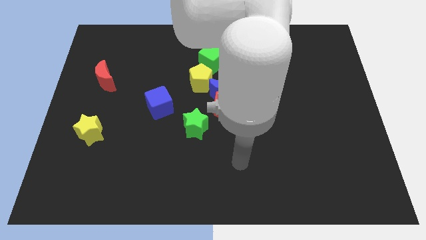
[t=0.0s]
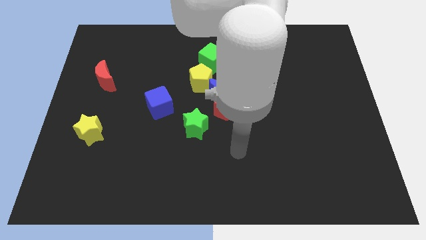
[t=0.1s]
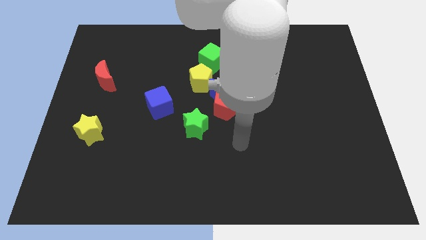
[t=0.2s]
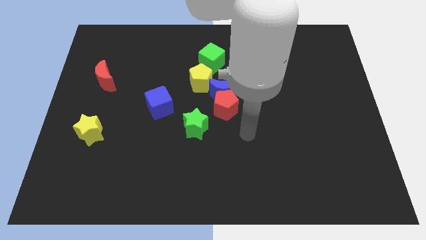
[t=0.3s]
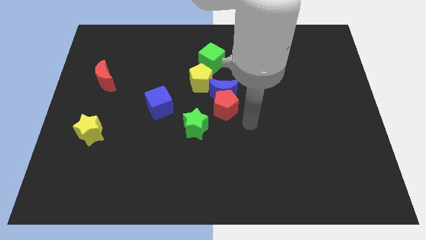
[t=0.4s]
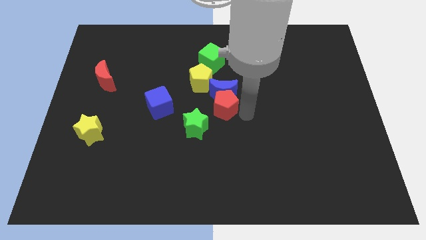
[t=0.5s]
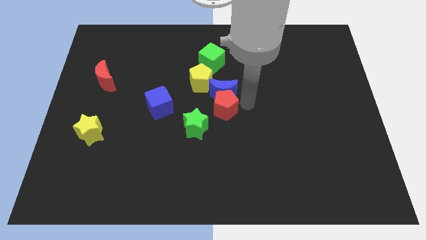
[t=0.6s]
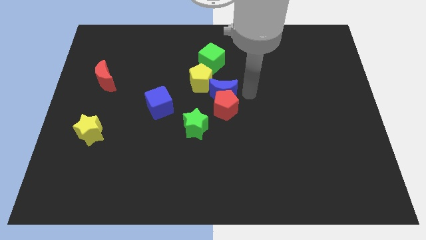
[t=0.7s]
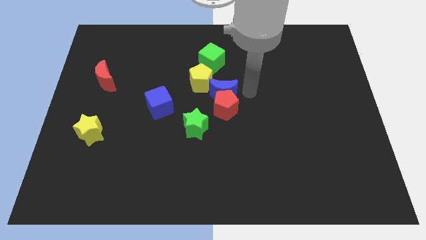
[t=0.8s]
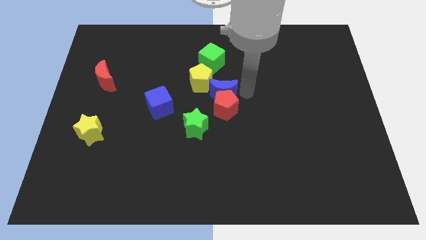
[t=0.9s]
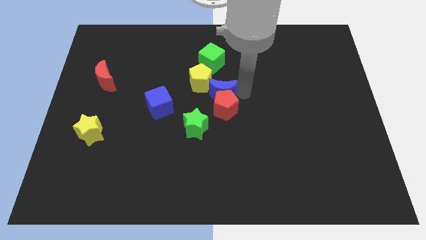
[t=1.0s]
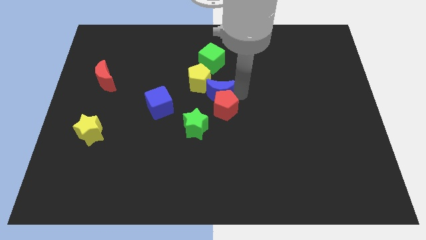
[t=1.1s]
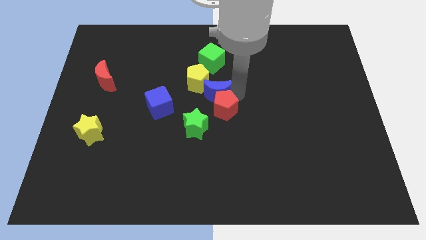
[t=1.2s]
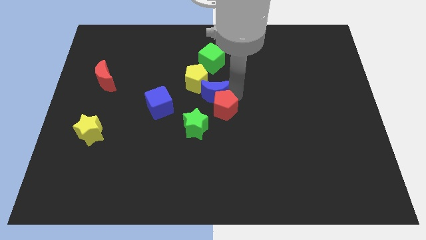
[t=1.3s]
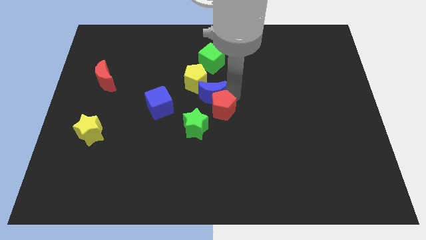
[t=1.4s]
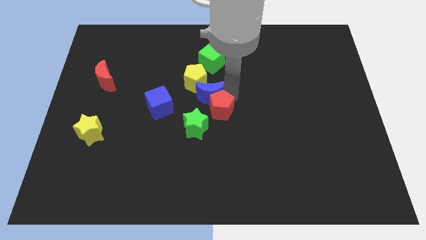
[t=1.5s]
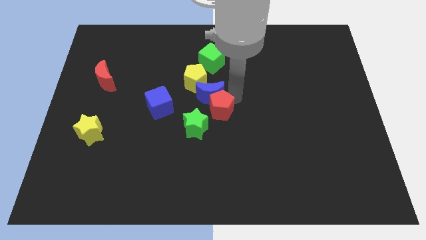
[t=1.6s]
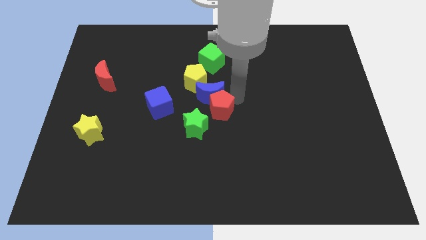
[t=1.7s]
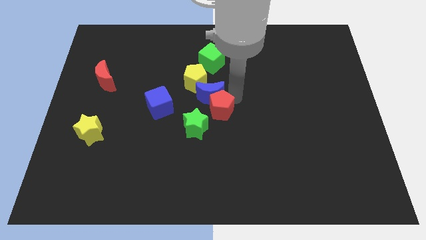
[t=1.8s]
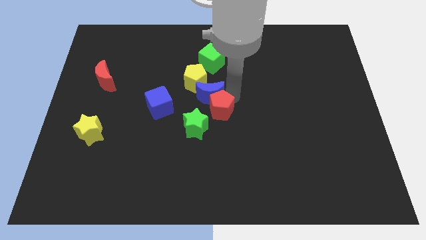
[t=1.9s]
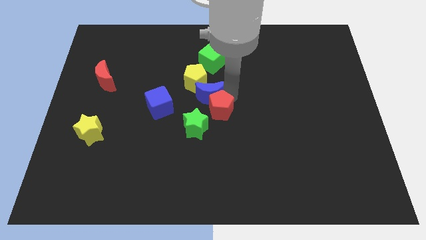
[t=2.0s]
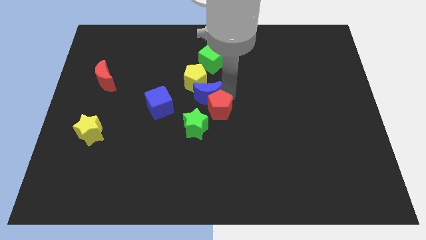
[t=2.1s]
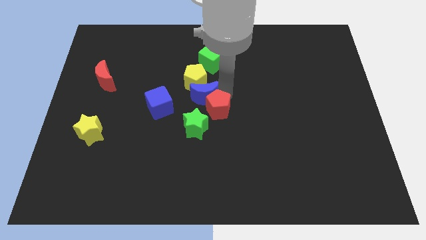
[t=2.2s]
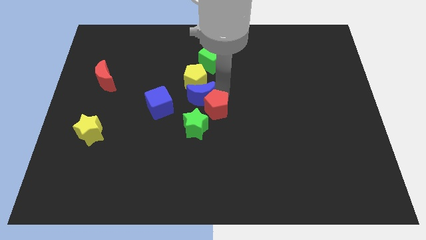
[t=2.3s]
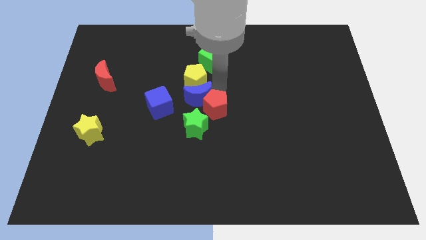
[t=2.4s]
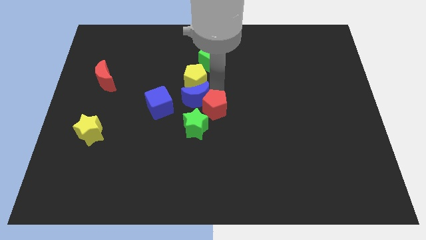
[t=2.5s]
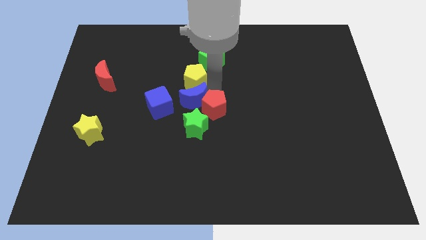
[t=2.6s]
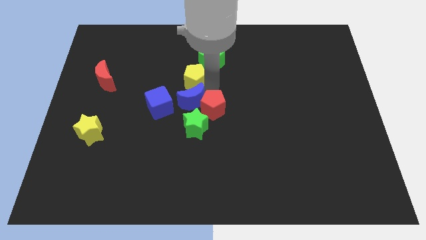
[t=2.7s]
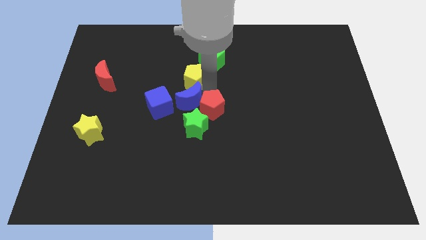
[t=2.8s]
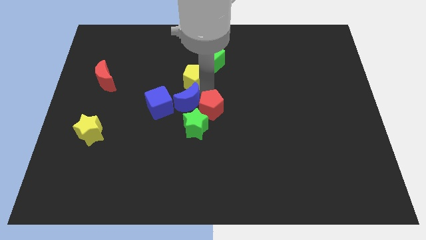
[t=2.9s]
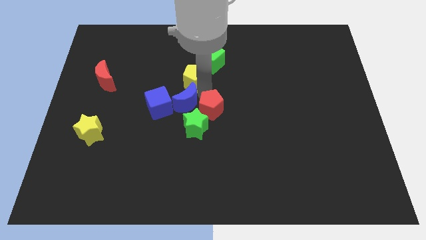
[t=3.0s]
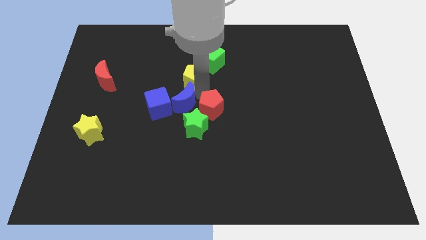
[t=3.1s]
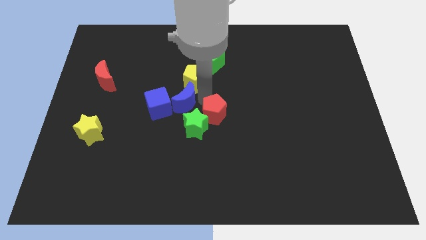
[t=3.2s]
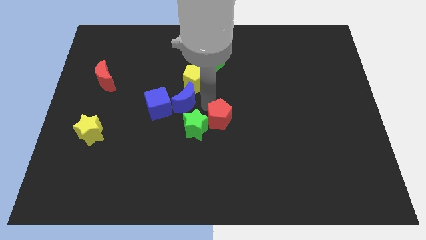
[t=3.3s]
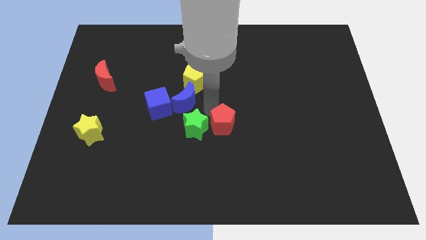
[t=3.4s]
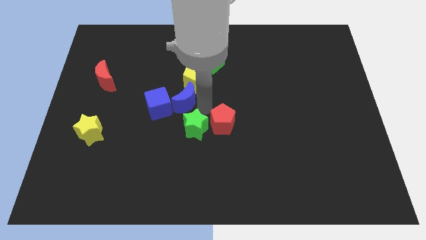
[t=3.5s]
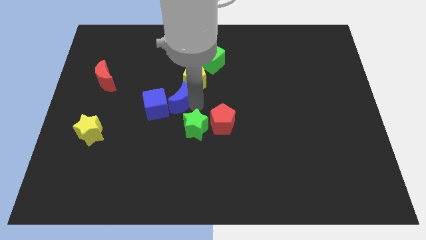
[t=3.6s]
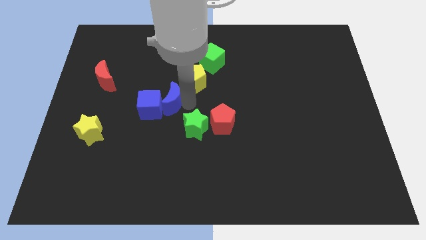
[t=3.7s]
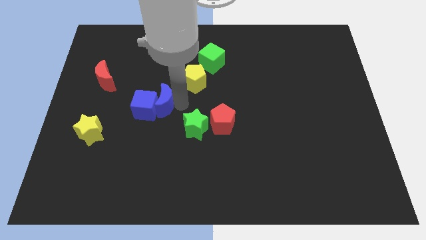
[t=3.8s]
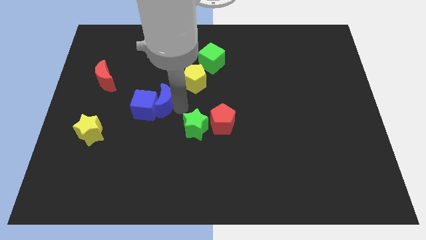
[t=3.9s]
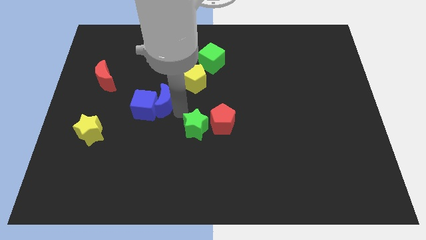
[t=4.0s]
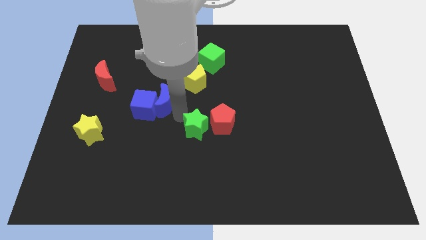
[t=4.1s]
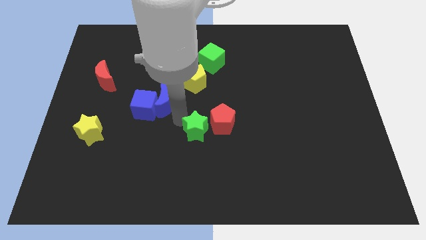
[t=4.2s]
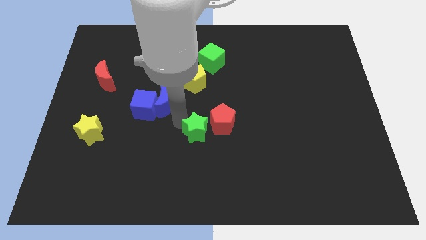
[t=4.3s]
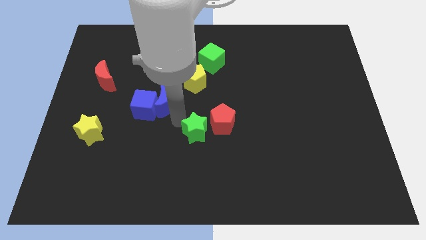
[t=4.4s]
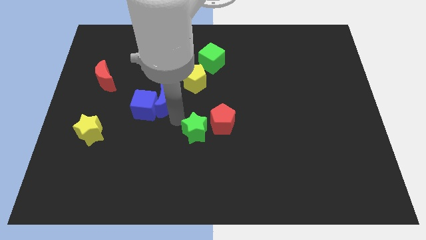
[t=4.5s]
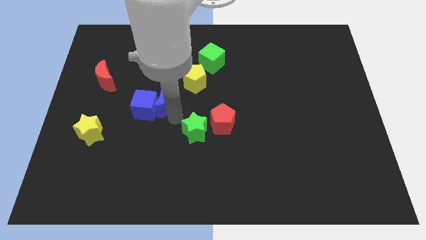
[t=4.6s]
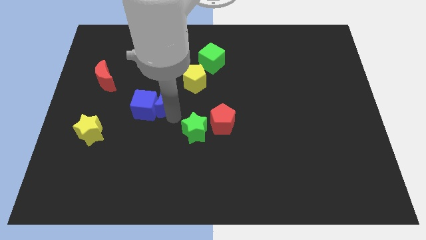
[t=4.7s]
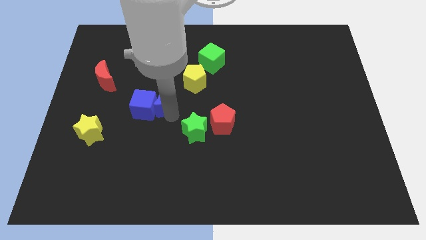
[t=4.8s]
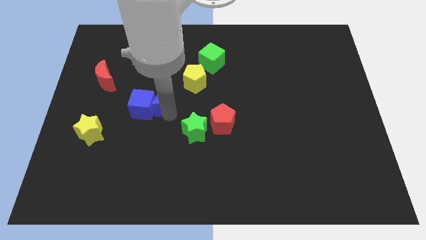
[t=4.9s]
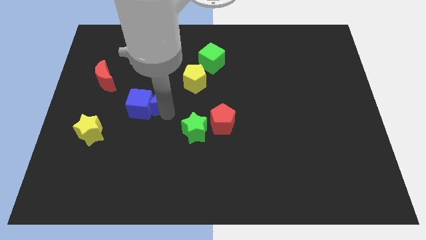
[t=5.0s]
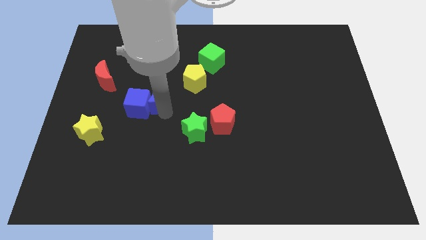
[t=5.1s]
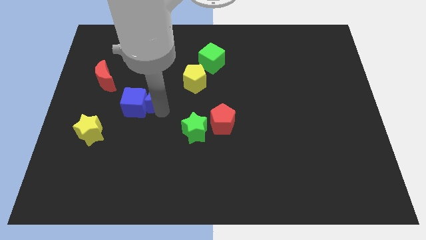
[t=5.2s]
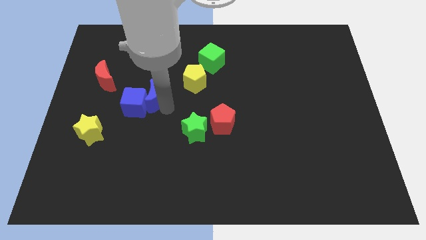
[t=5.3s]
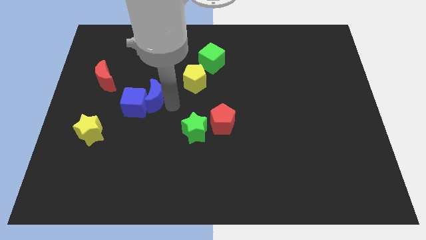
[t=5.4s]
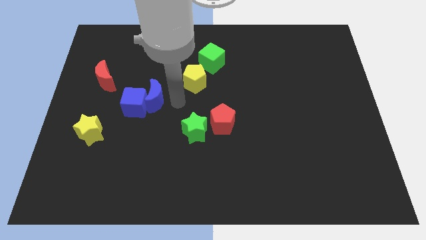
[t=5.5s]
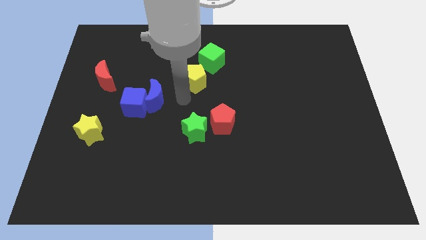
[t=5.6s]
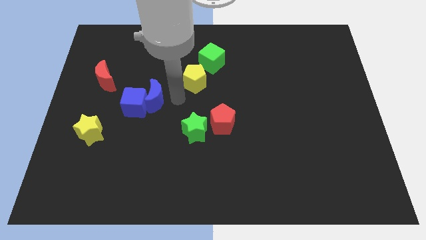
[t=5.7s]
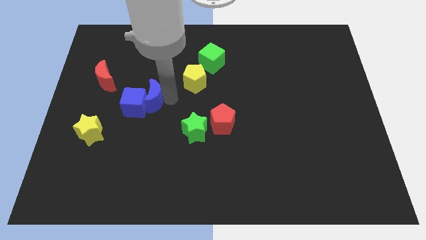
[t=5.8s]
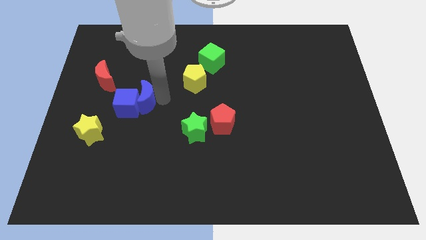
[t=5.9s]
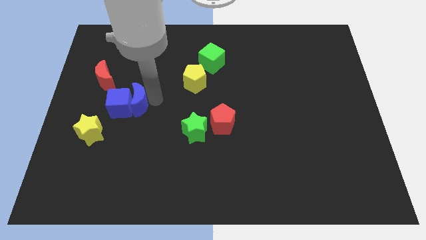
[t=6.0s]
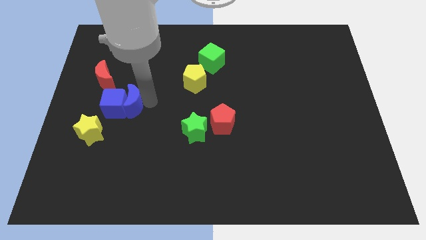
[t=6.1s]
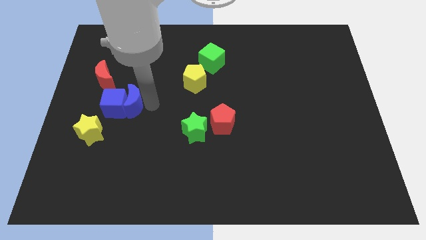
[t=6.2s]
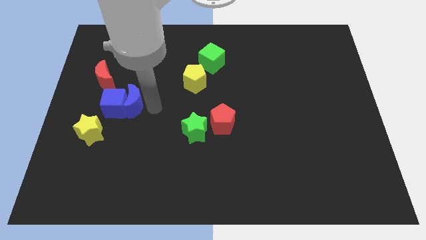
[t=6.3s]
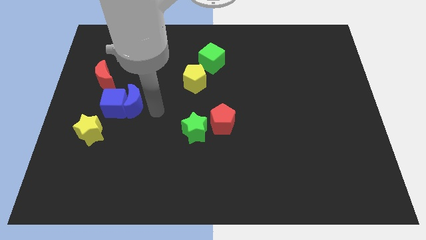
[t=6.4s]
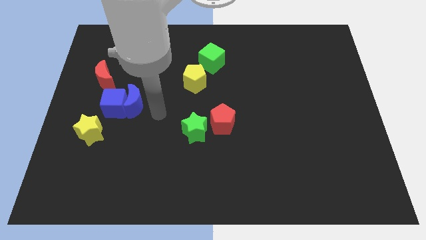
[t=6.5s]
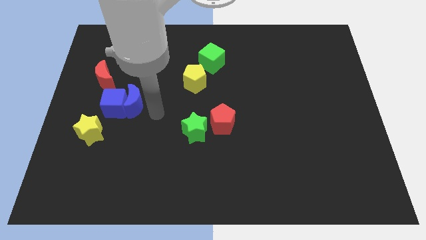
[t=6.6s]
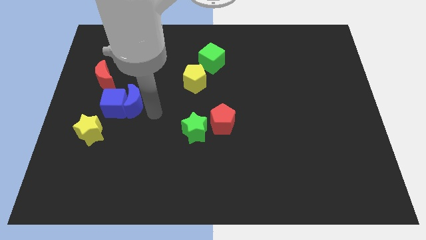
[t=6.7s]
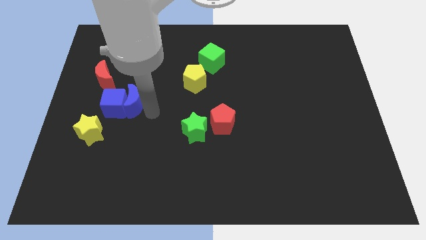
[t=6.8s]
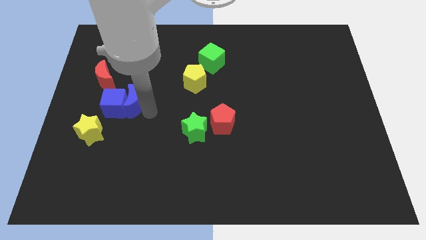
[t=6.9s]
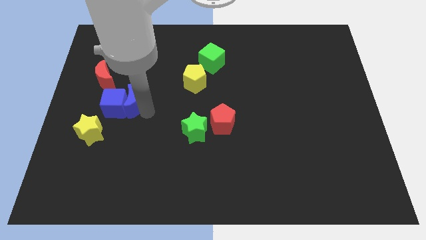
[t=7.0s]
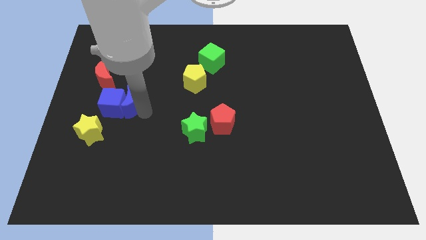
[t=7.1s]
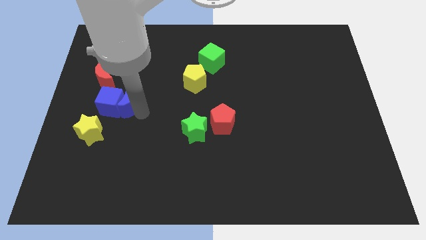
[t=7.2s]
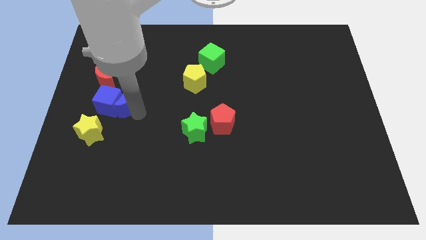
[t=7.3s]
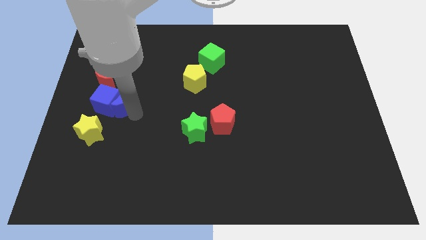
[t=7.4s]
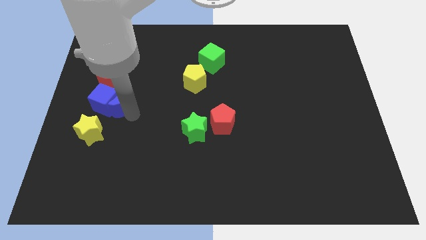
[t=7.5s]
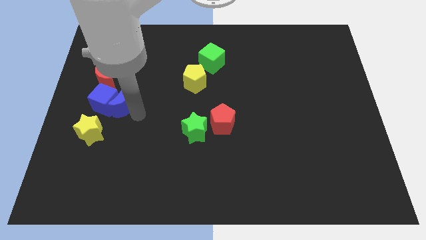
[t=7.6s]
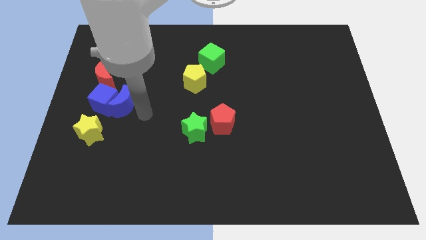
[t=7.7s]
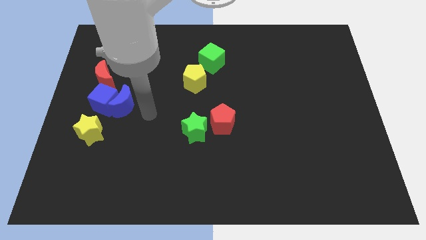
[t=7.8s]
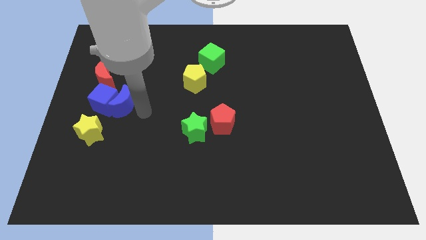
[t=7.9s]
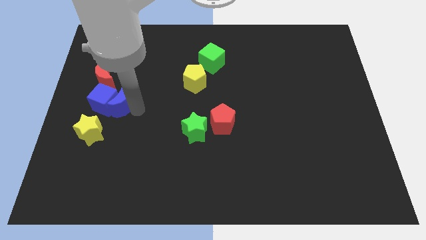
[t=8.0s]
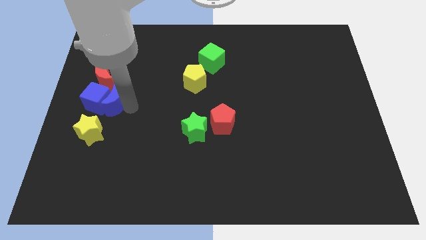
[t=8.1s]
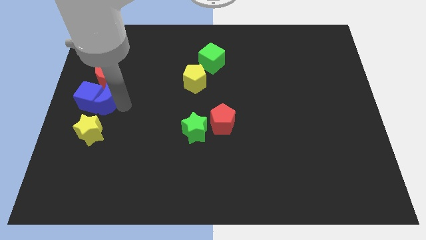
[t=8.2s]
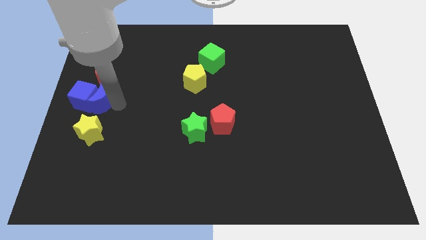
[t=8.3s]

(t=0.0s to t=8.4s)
push the blue moon to the left side
